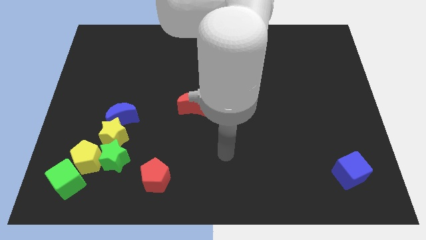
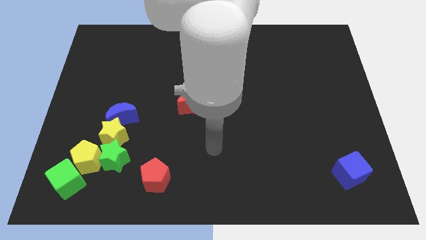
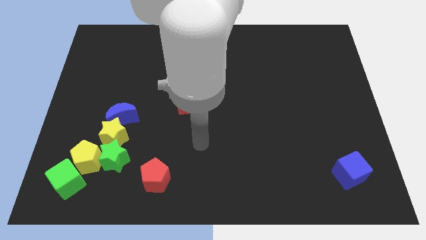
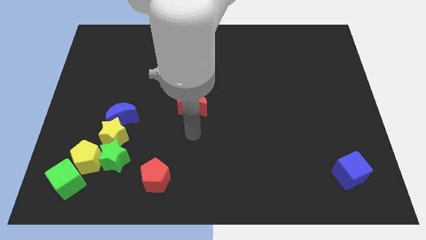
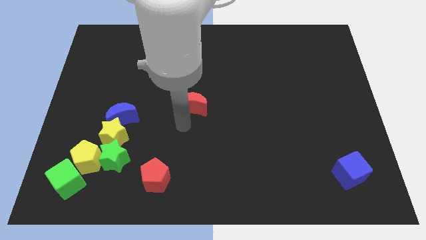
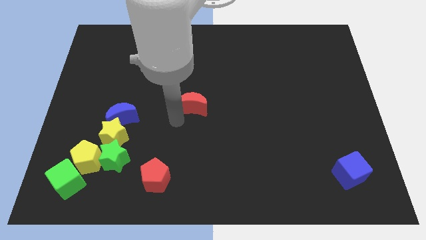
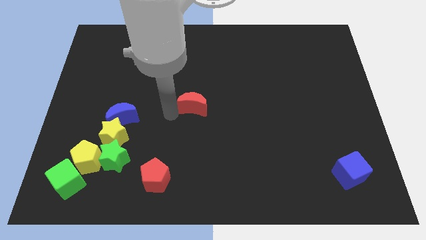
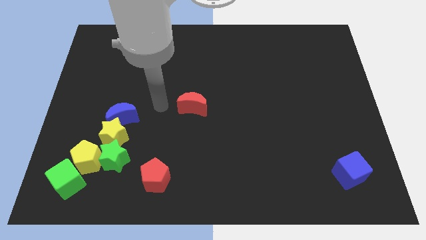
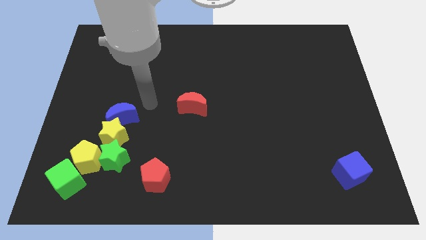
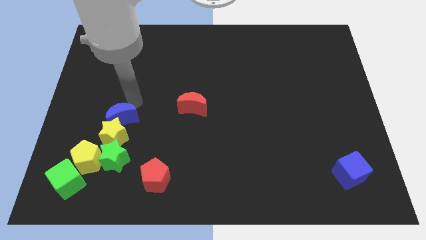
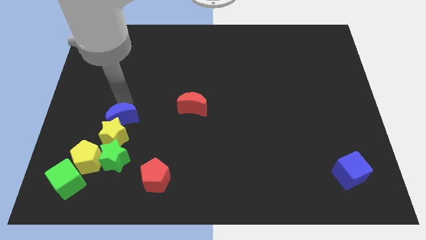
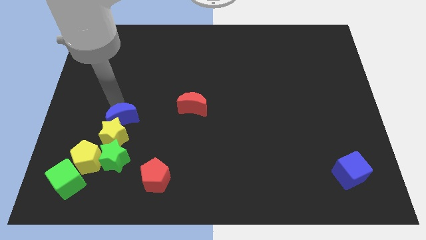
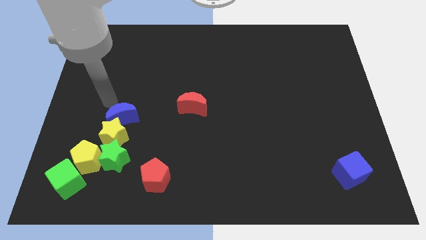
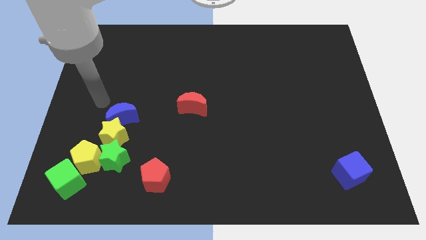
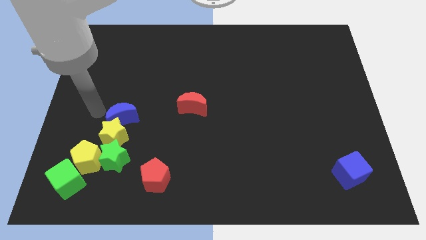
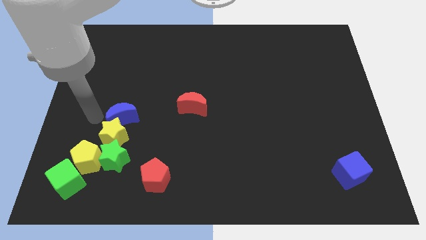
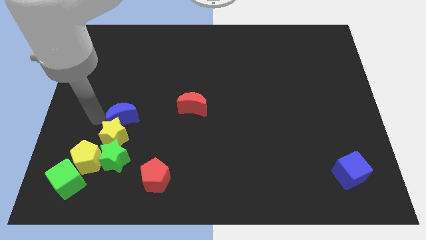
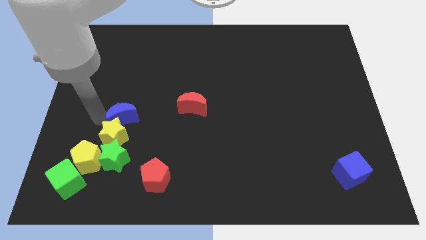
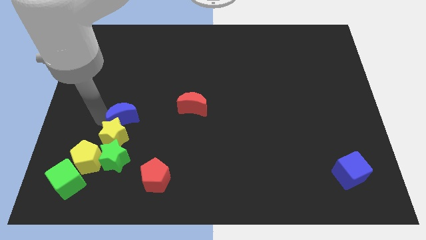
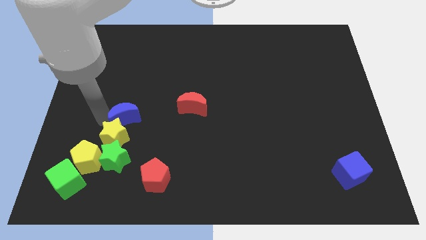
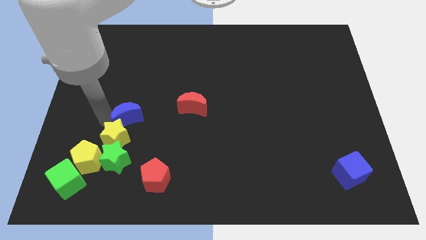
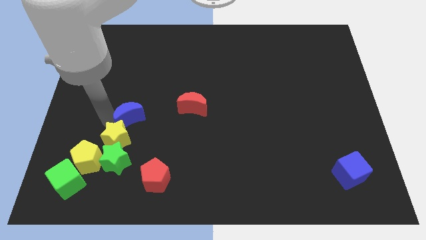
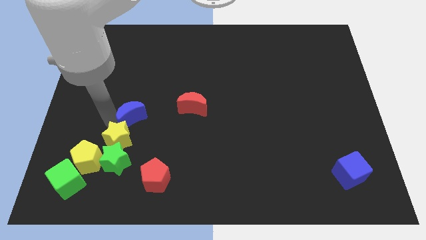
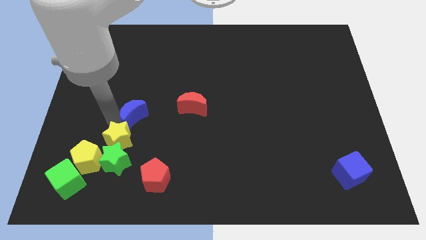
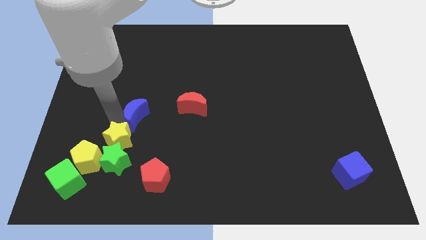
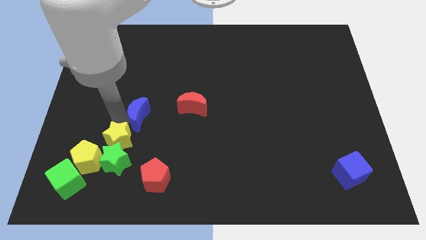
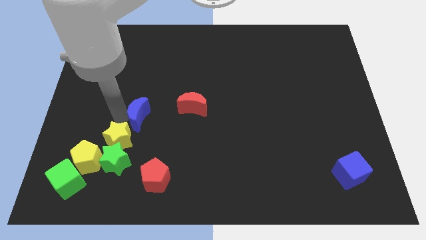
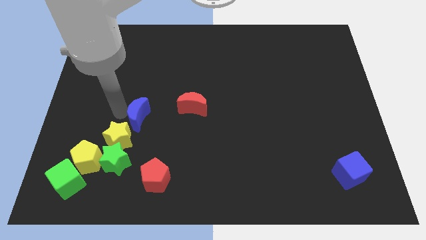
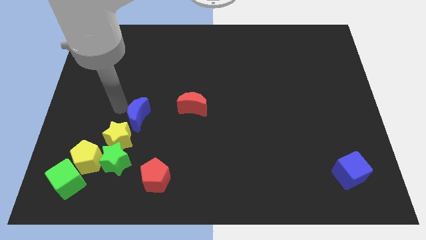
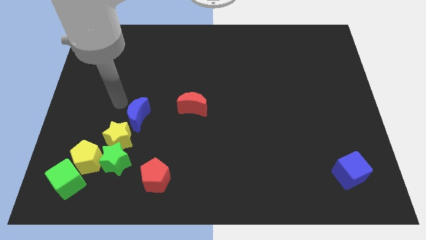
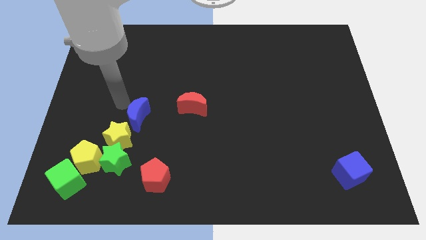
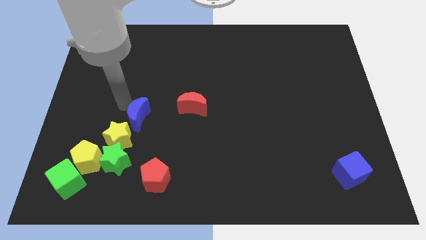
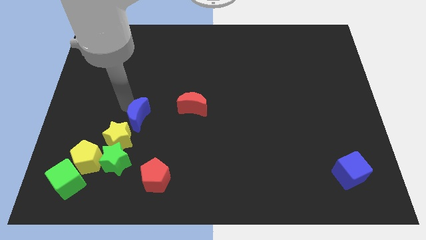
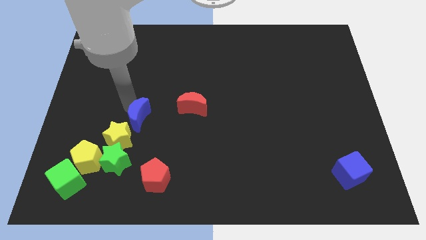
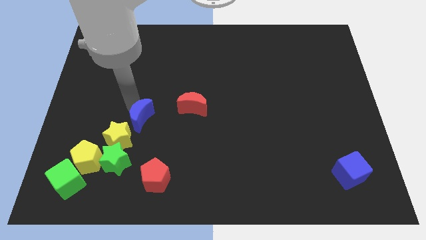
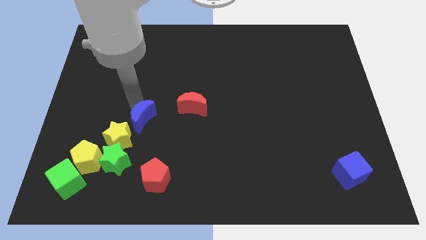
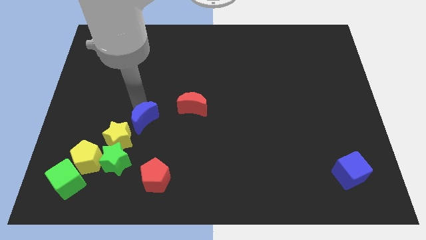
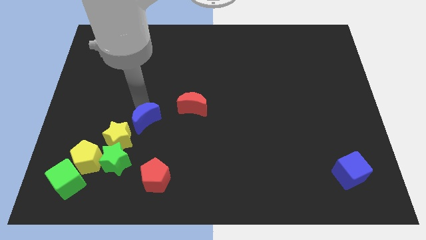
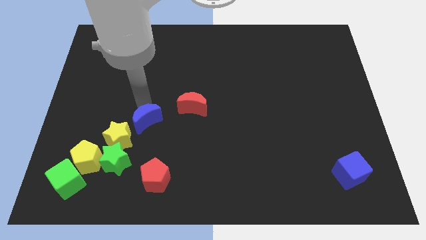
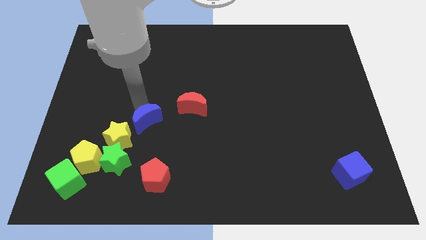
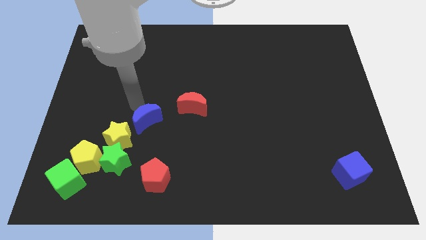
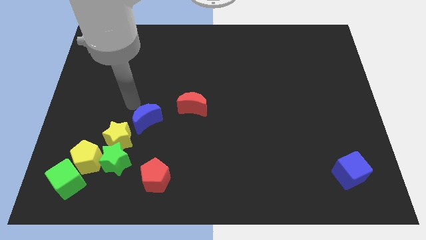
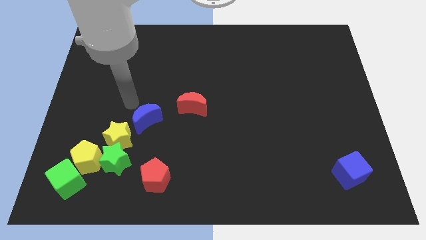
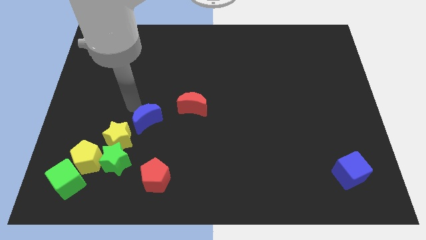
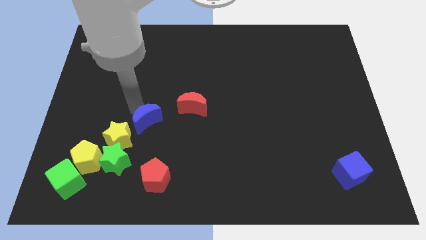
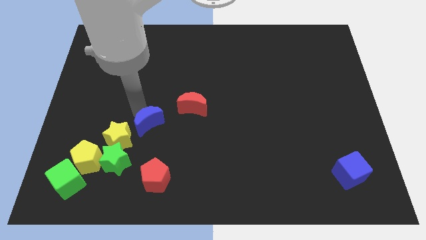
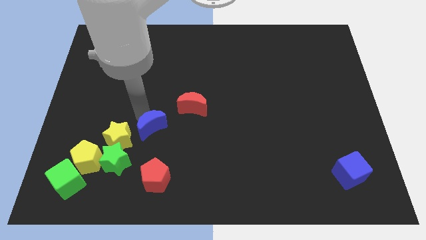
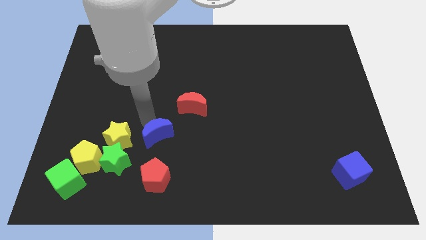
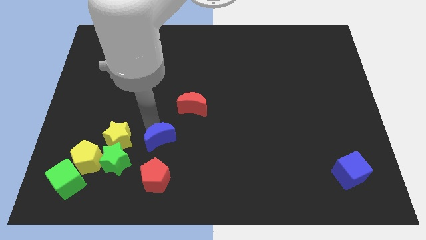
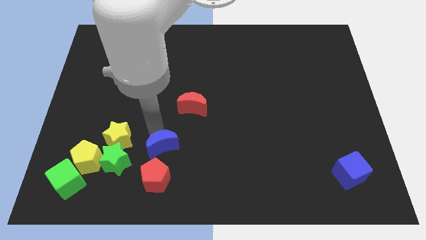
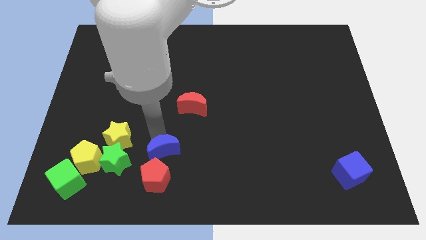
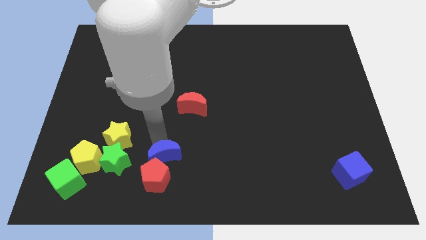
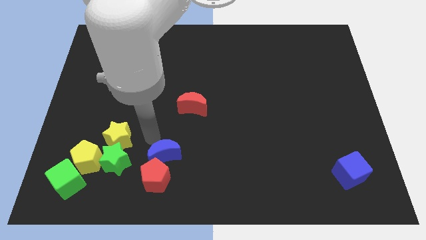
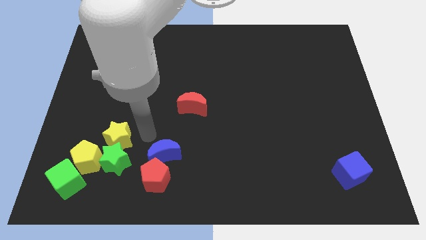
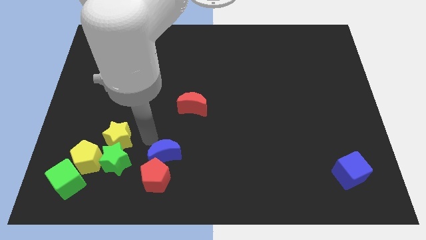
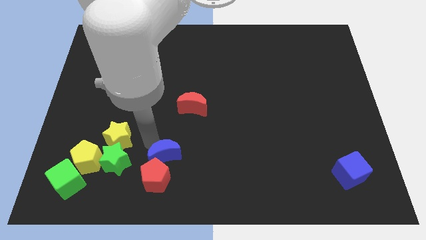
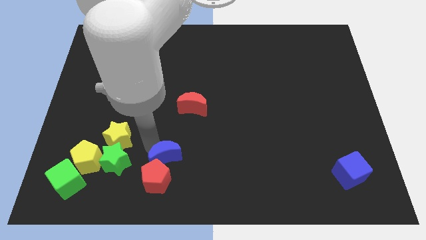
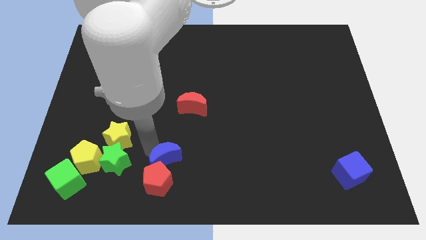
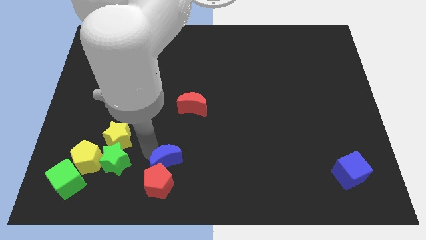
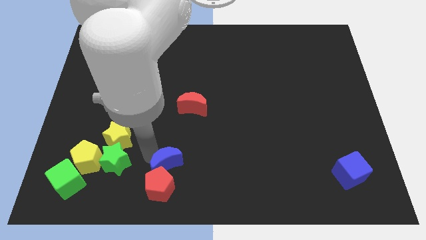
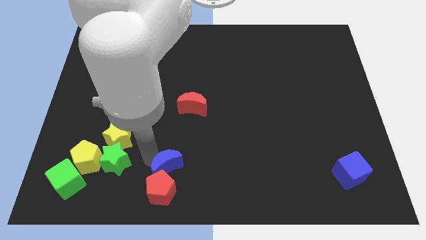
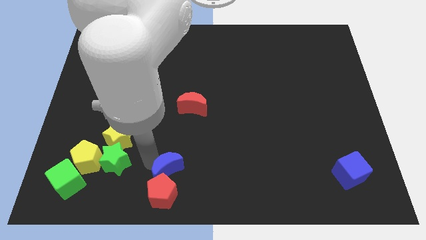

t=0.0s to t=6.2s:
put the blue moon to the bottom side
